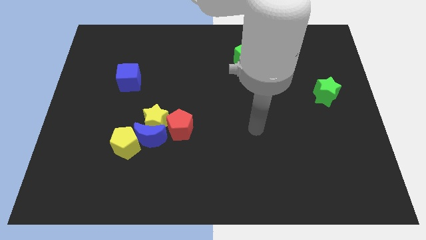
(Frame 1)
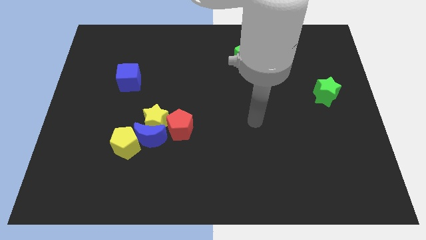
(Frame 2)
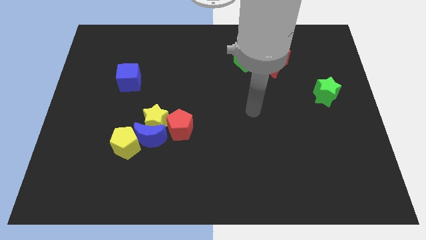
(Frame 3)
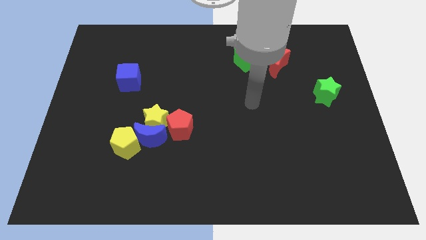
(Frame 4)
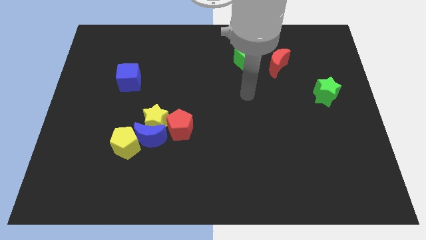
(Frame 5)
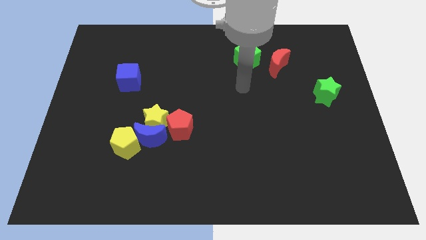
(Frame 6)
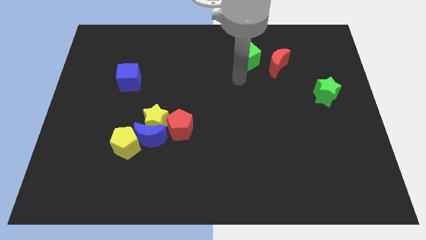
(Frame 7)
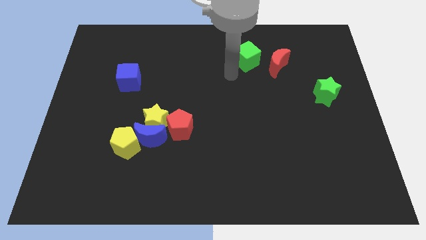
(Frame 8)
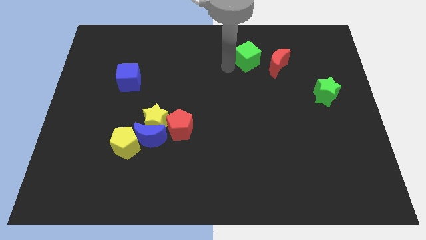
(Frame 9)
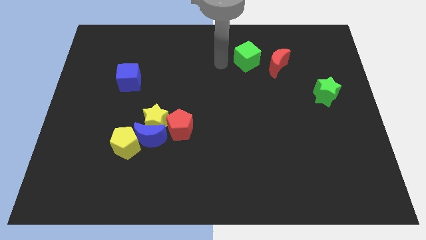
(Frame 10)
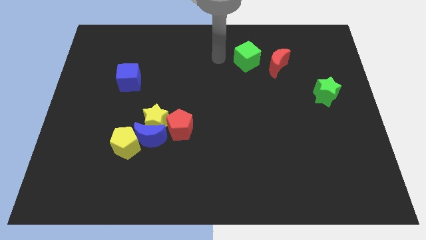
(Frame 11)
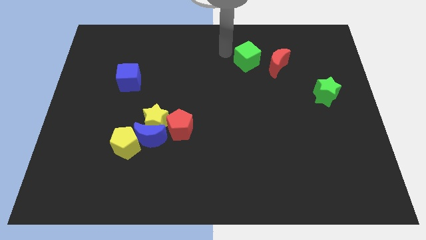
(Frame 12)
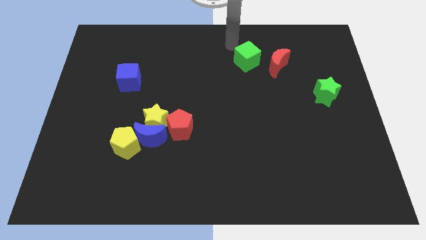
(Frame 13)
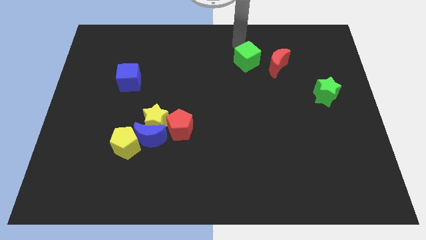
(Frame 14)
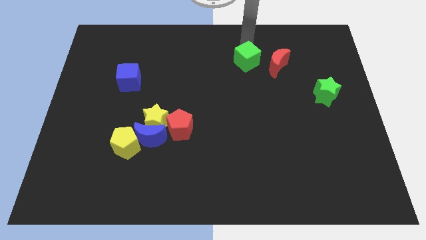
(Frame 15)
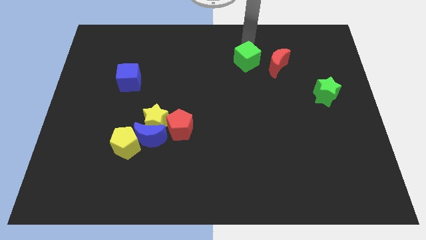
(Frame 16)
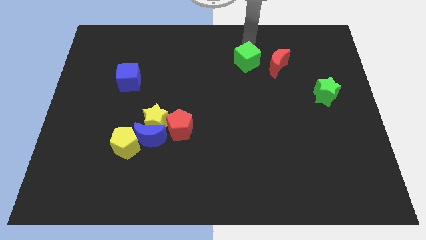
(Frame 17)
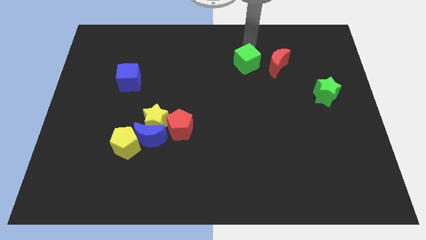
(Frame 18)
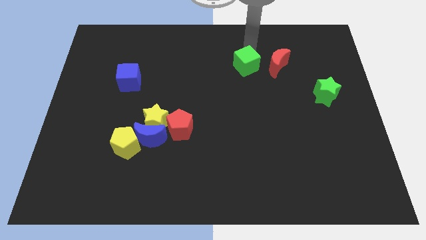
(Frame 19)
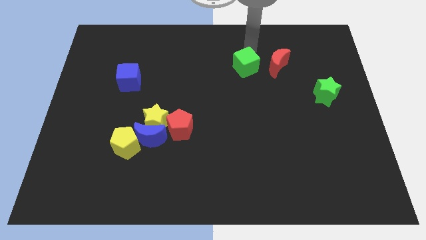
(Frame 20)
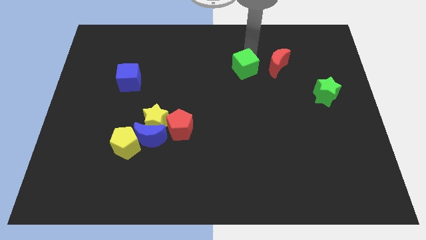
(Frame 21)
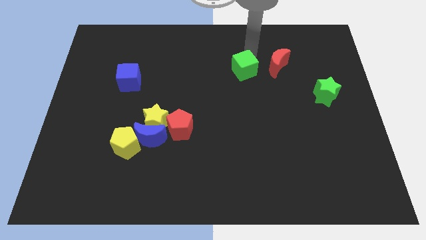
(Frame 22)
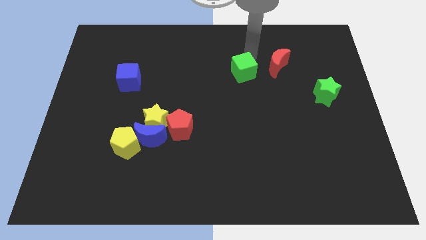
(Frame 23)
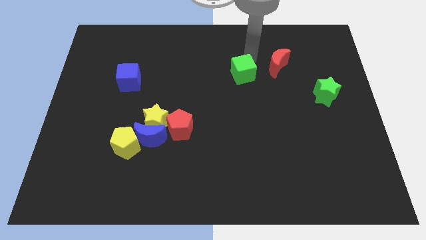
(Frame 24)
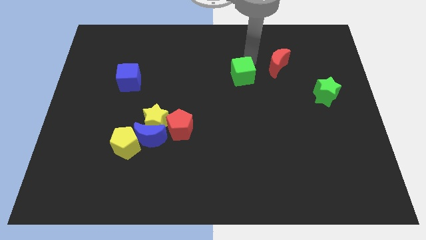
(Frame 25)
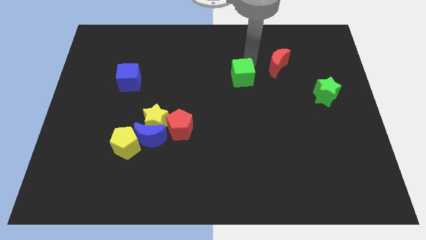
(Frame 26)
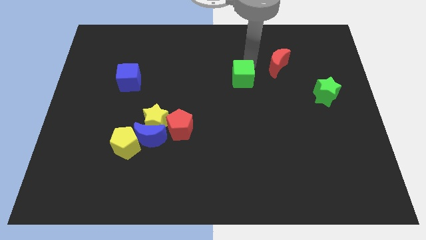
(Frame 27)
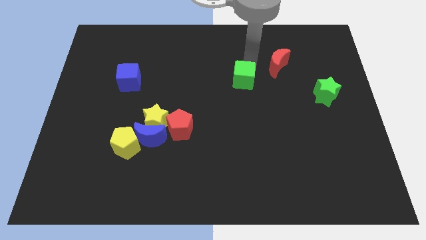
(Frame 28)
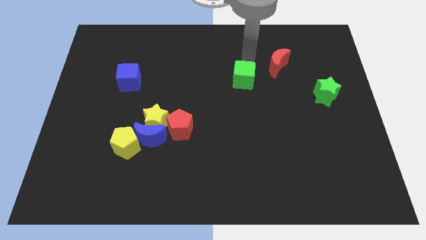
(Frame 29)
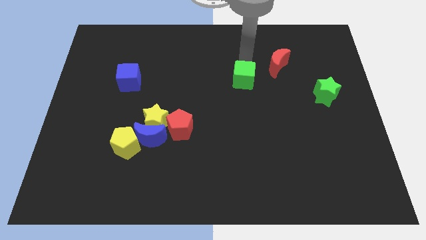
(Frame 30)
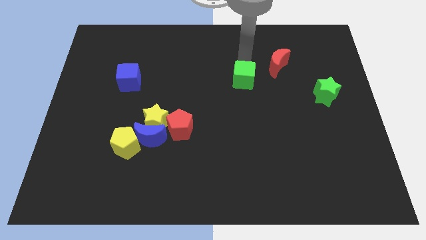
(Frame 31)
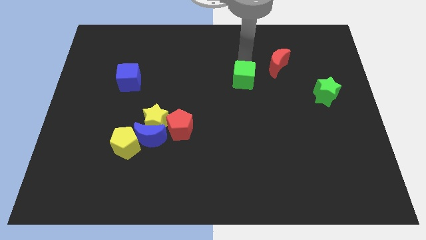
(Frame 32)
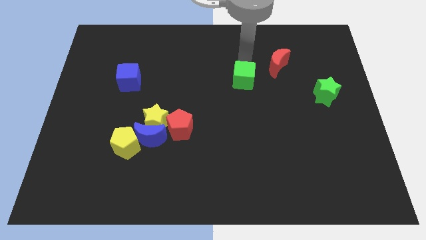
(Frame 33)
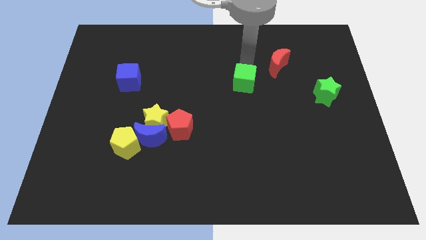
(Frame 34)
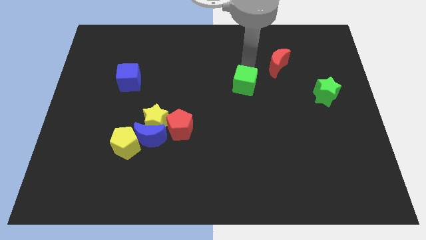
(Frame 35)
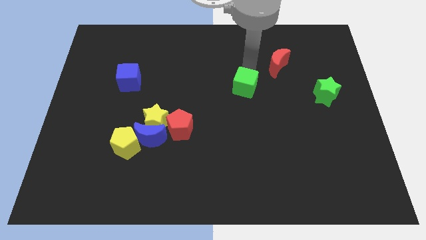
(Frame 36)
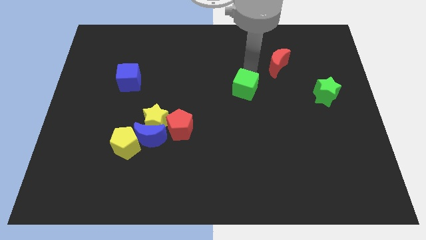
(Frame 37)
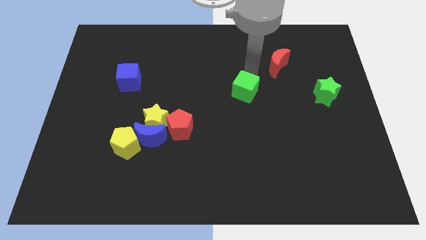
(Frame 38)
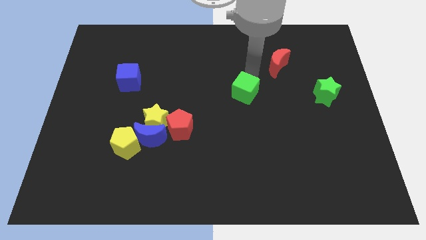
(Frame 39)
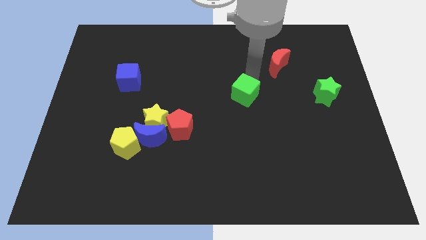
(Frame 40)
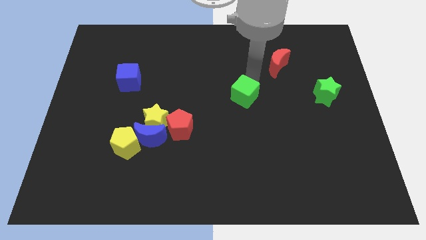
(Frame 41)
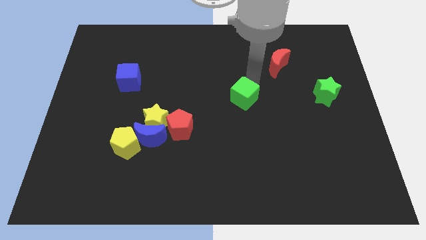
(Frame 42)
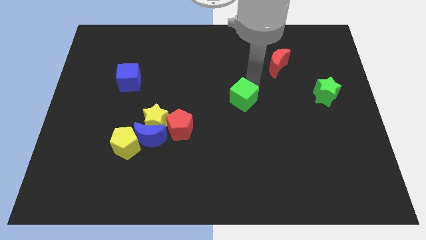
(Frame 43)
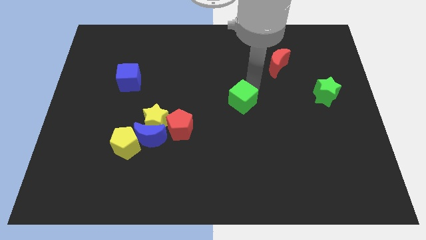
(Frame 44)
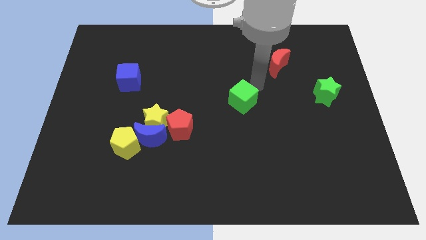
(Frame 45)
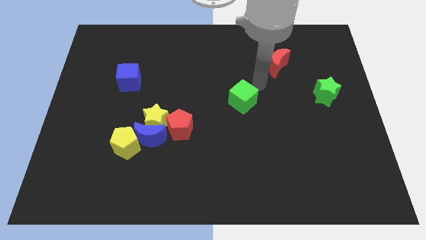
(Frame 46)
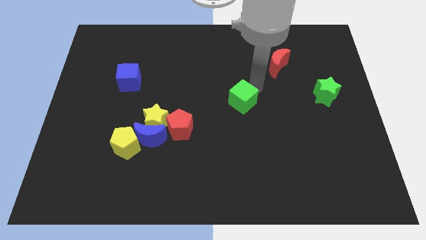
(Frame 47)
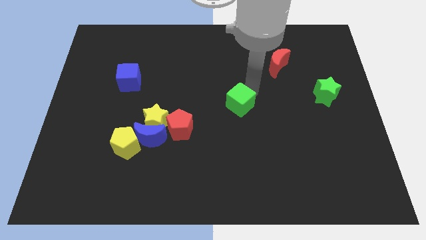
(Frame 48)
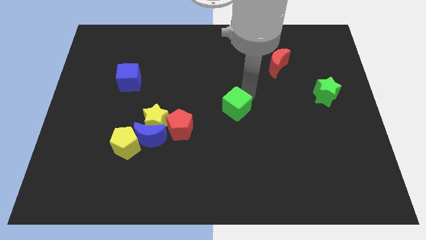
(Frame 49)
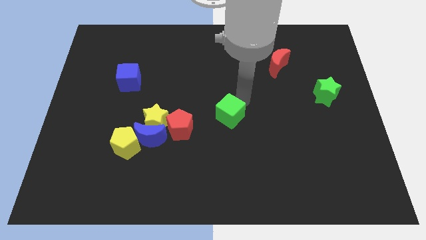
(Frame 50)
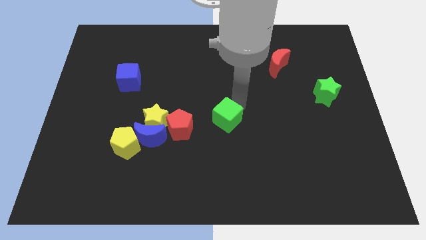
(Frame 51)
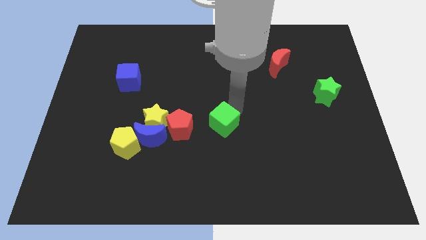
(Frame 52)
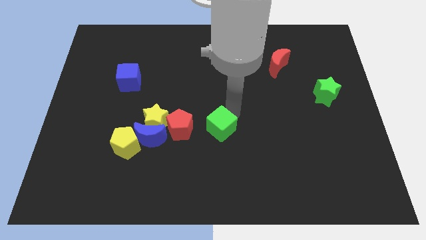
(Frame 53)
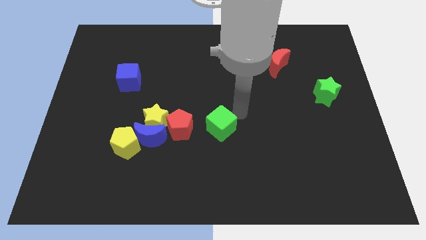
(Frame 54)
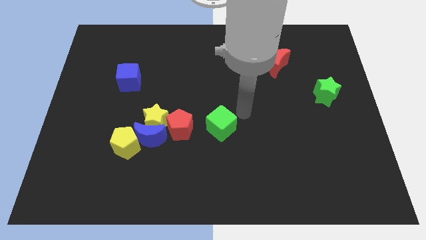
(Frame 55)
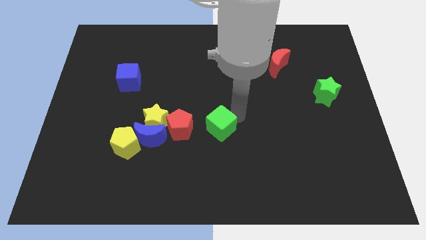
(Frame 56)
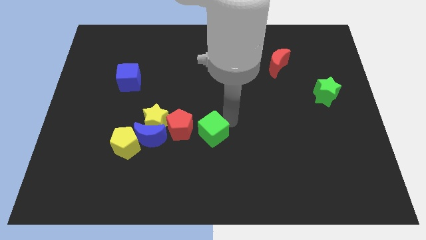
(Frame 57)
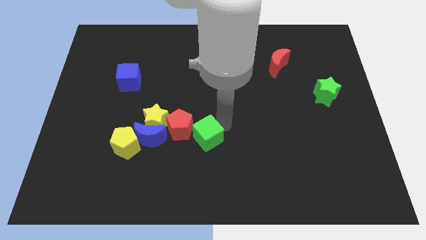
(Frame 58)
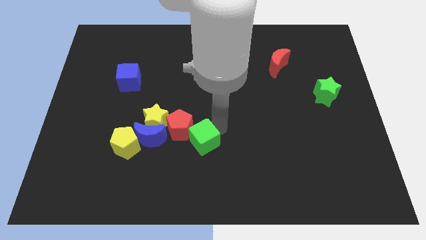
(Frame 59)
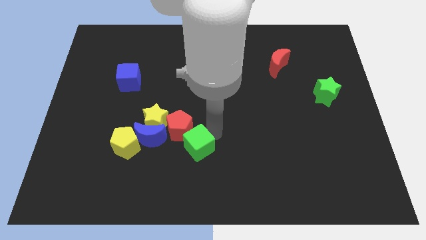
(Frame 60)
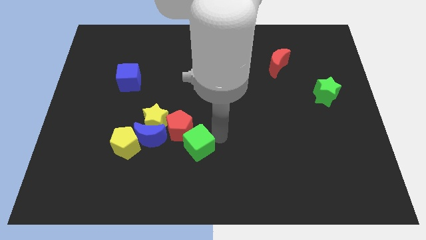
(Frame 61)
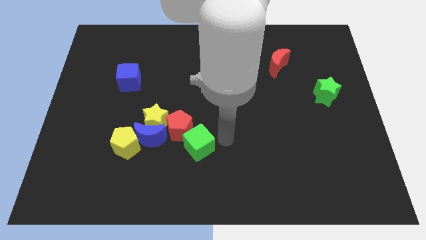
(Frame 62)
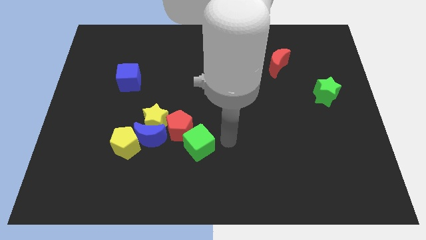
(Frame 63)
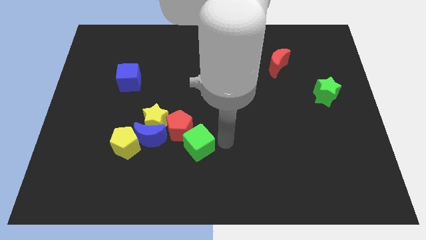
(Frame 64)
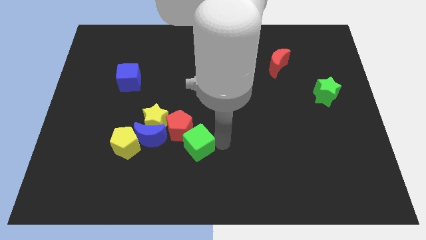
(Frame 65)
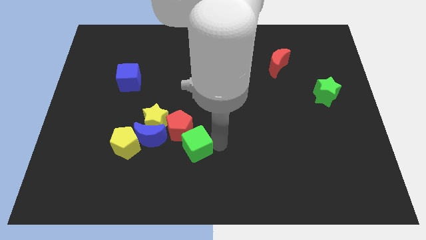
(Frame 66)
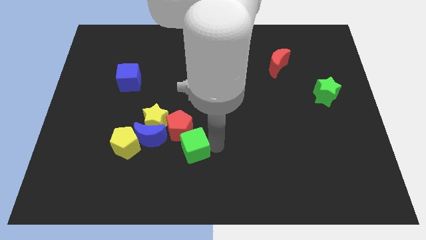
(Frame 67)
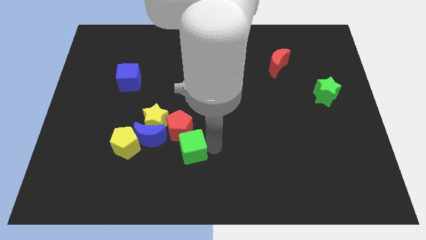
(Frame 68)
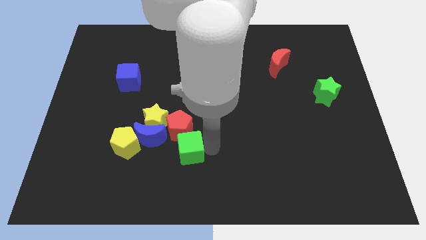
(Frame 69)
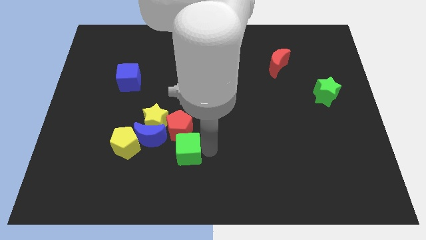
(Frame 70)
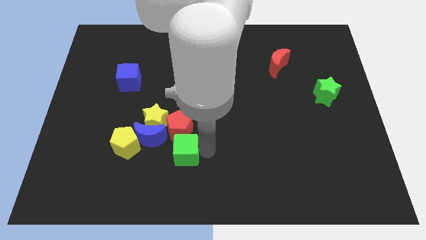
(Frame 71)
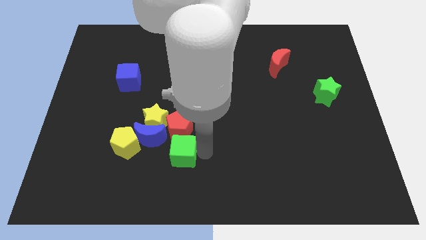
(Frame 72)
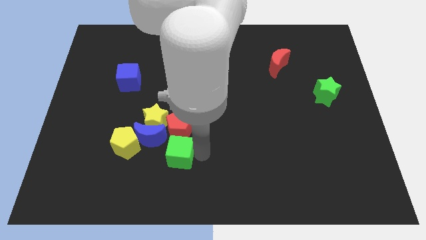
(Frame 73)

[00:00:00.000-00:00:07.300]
move the green cube to the bottom left of the red pentagon
